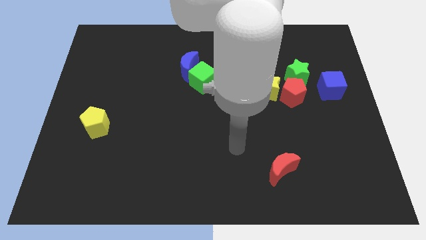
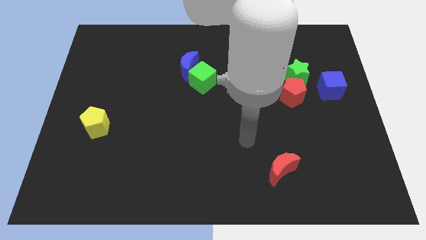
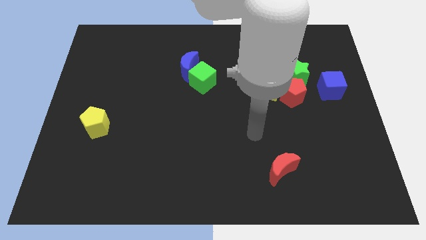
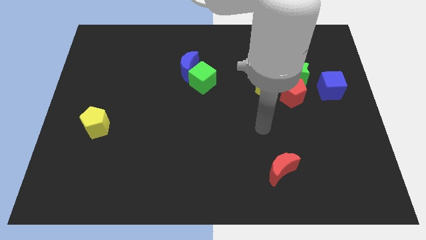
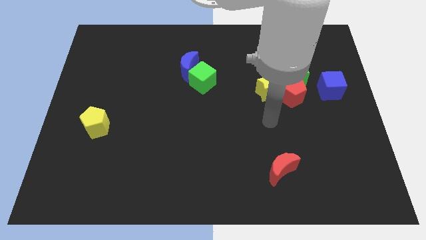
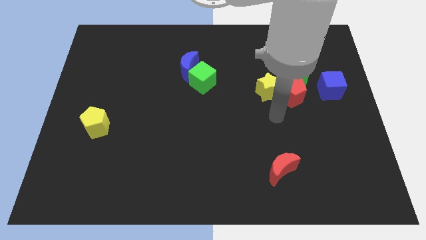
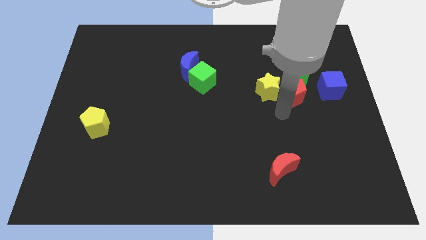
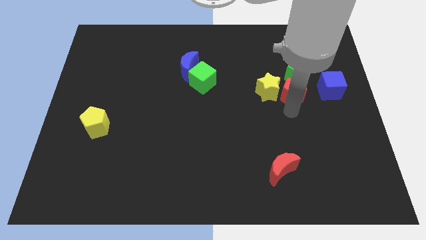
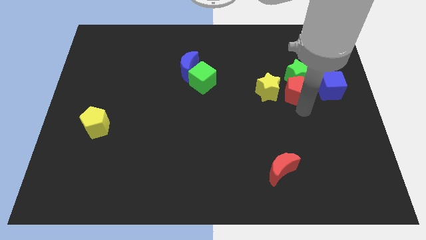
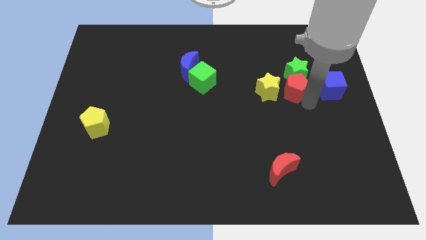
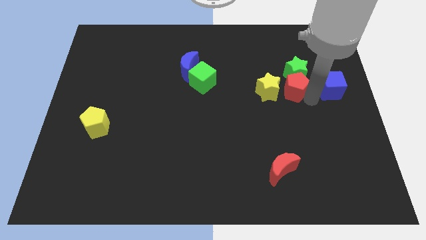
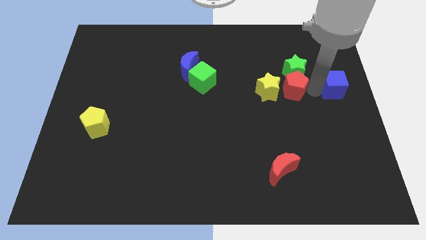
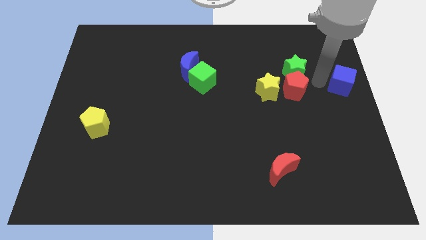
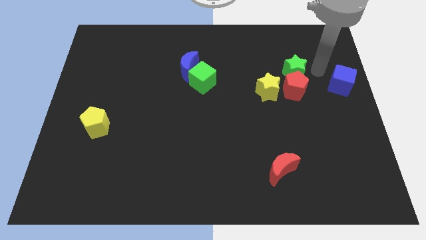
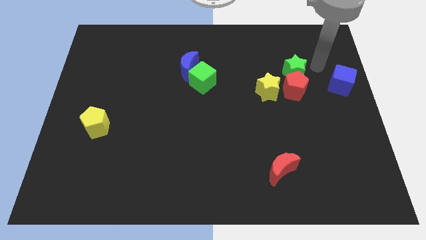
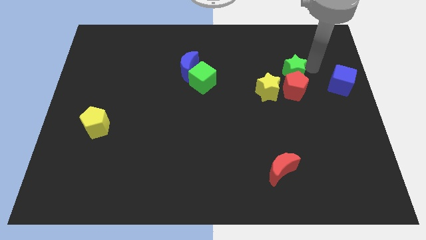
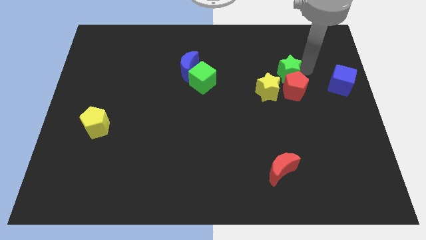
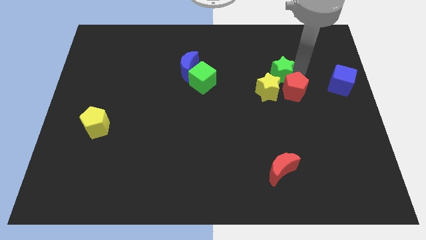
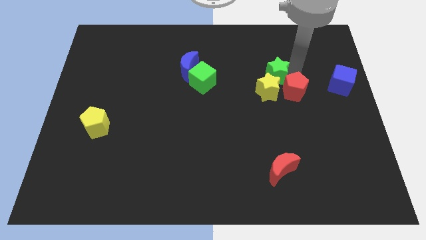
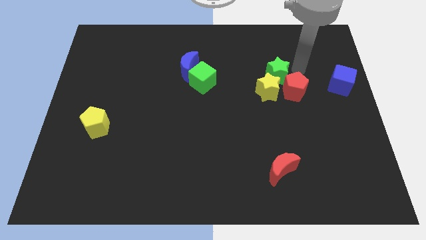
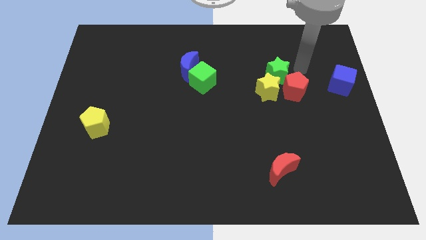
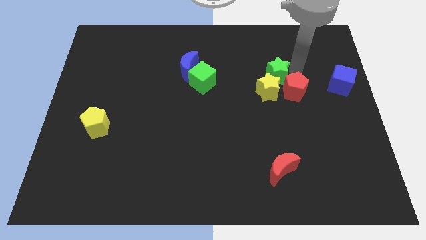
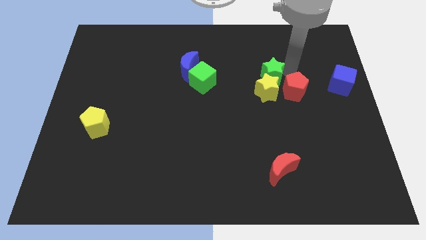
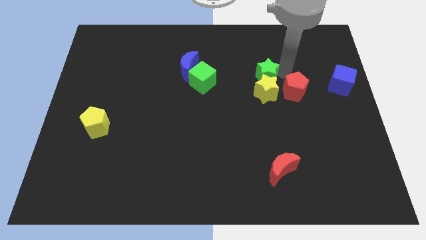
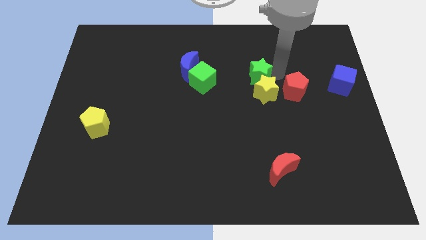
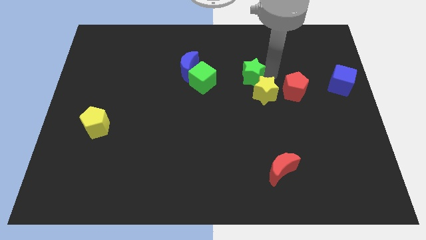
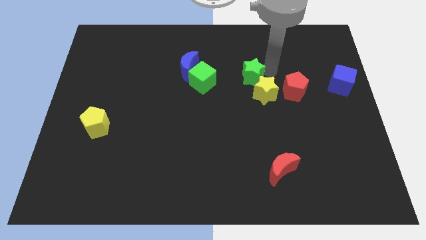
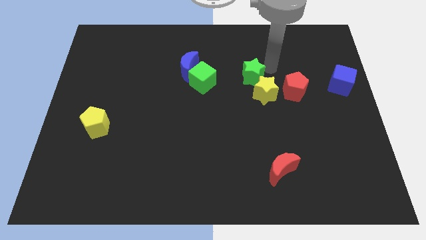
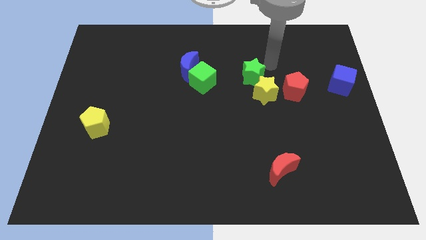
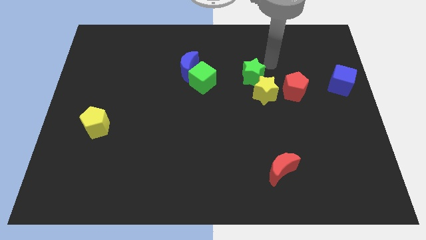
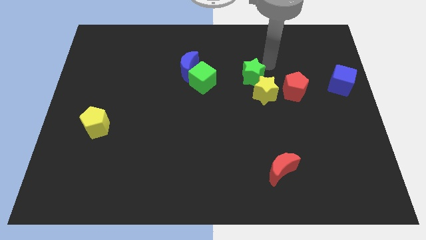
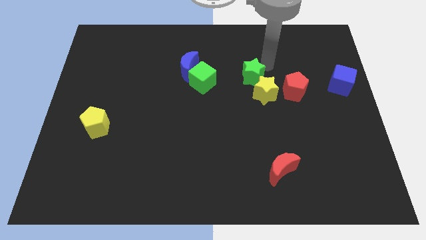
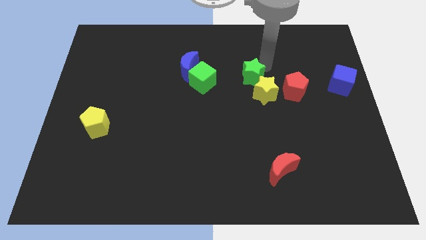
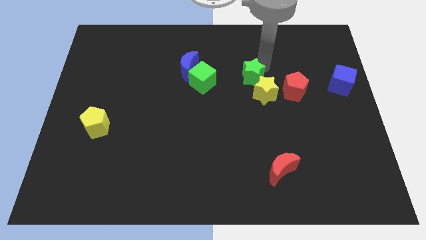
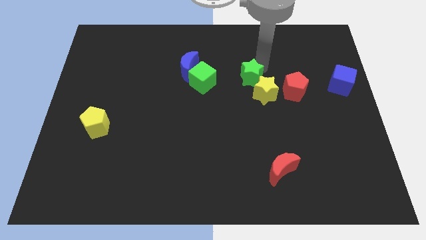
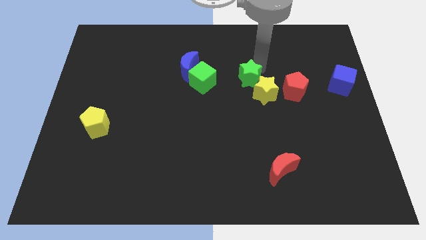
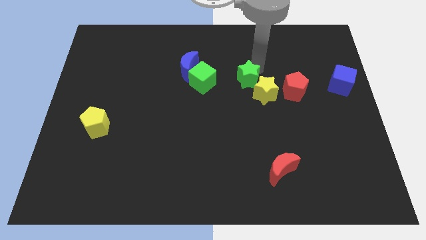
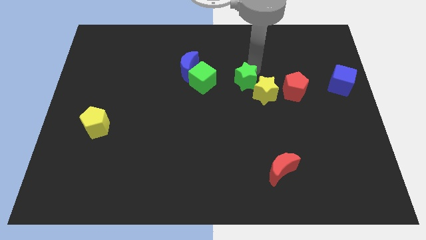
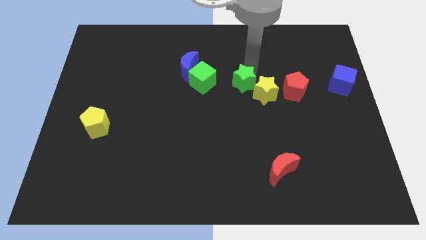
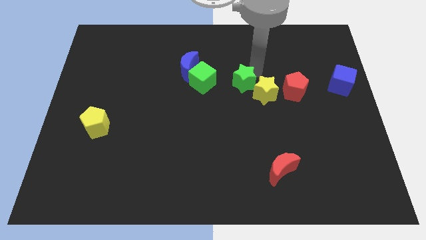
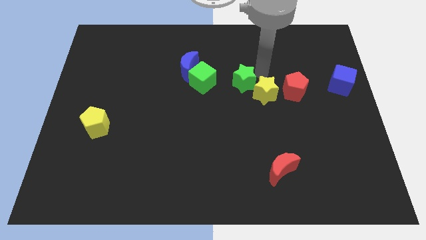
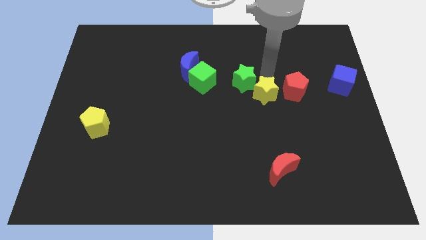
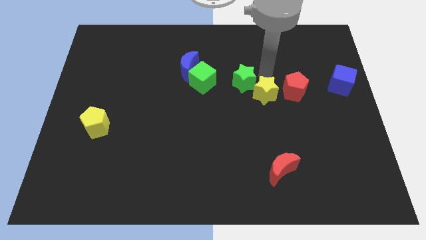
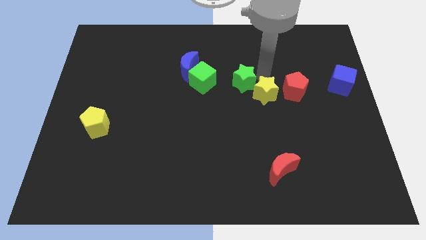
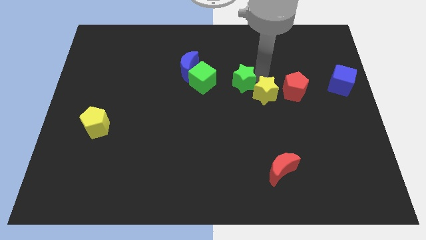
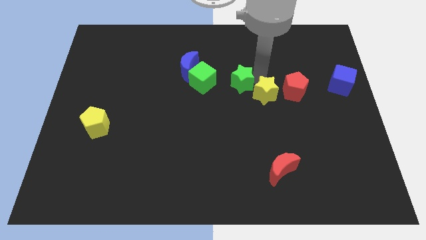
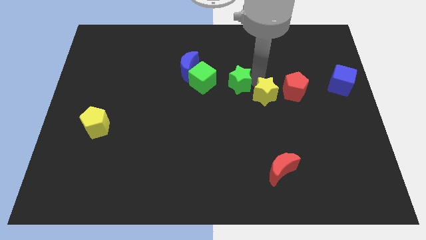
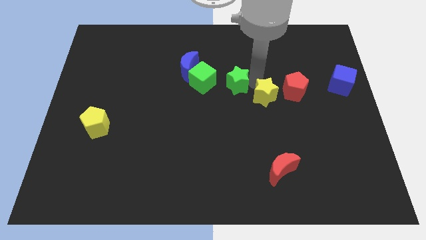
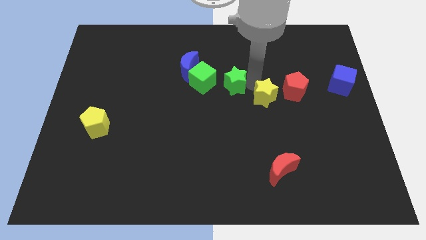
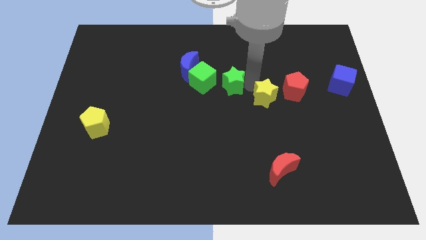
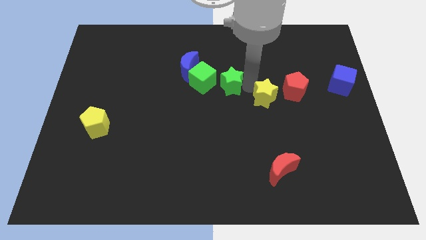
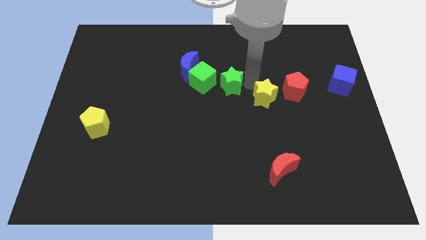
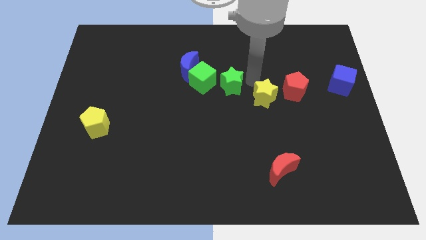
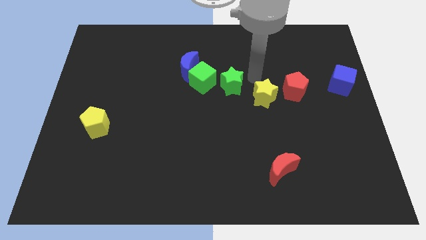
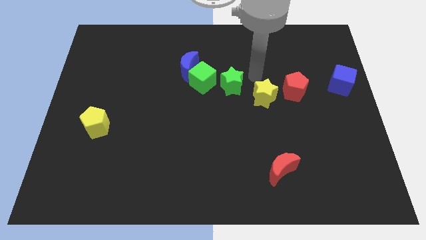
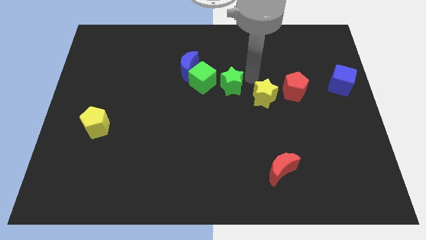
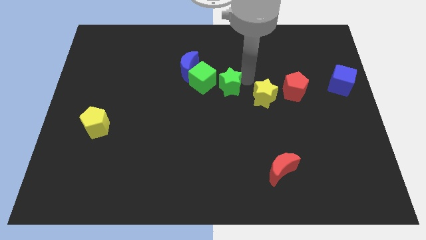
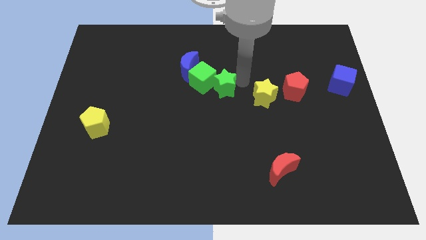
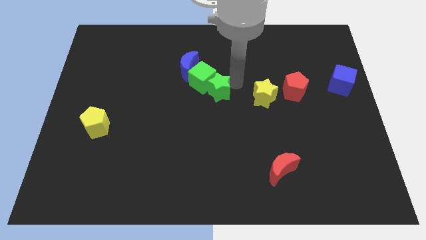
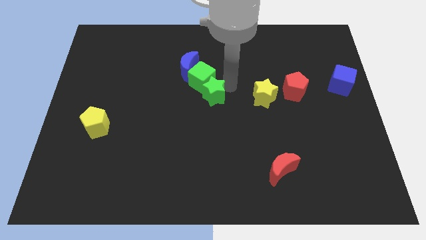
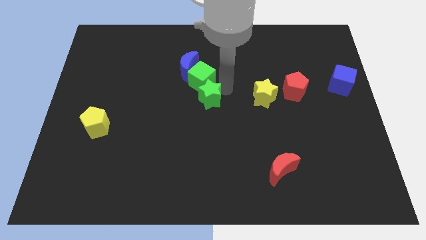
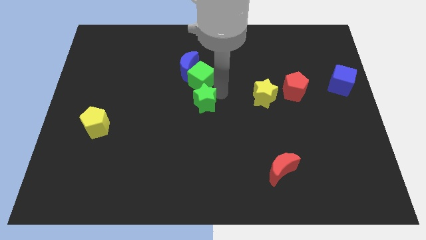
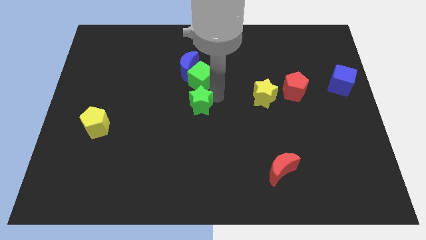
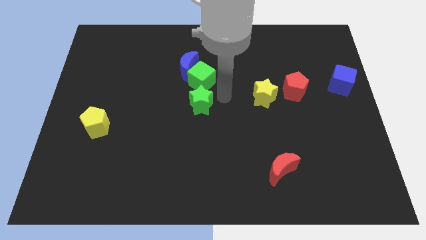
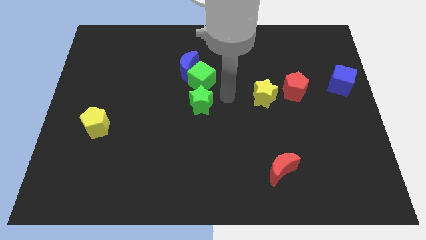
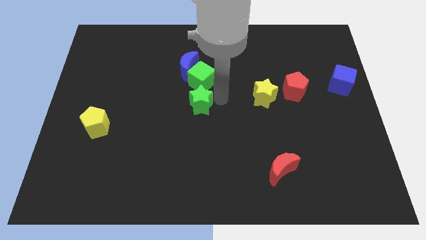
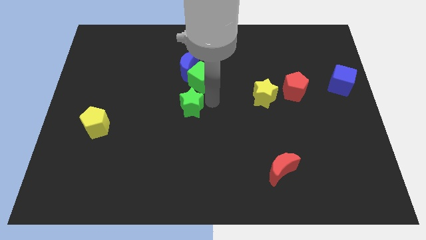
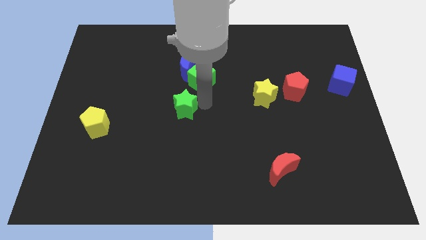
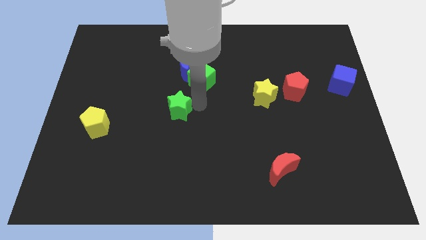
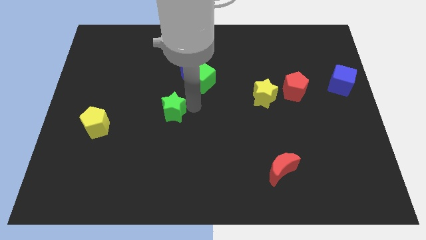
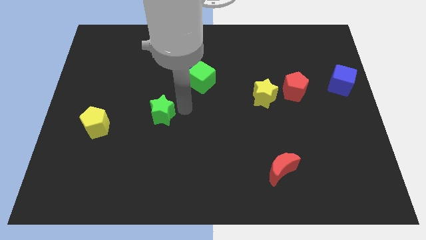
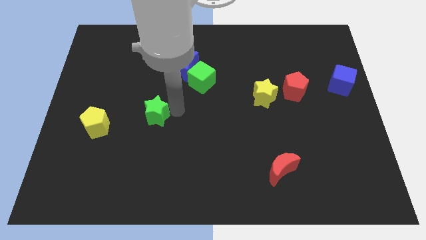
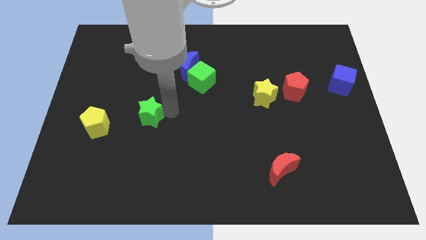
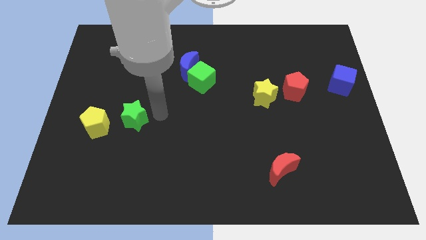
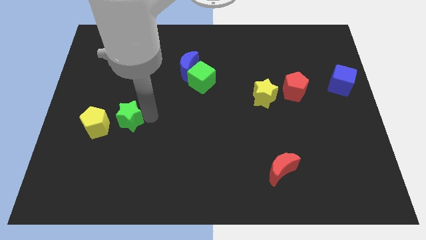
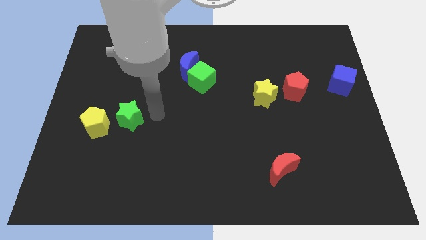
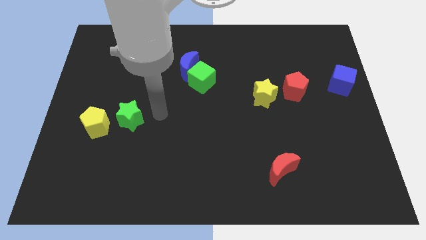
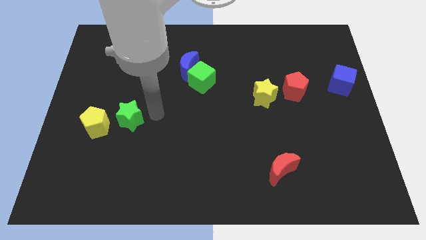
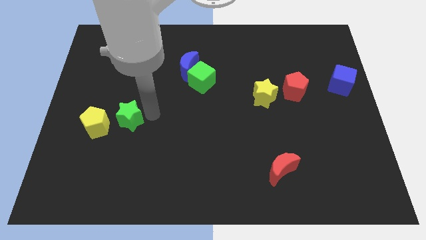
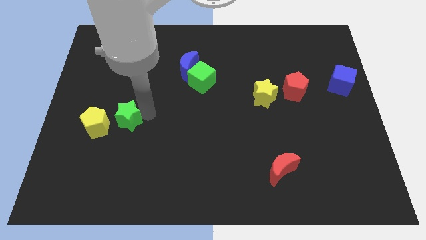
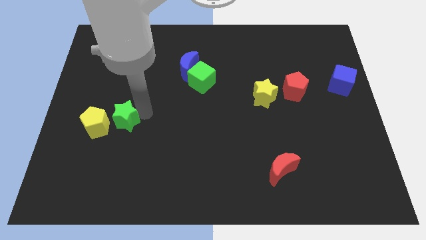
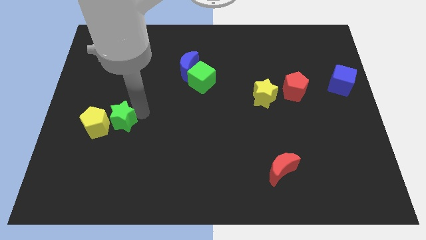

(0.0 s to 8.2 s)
push the green star to the yellow pentagon
